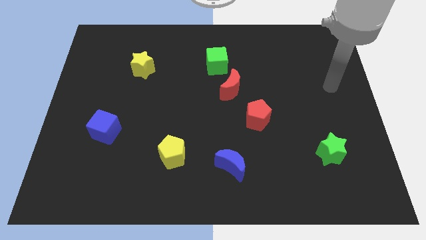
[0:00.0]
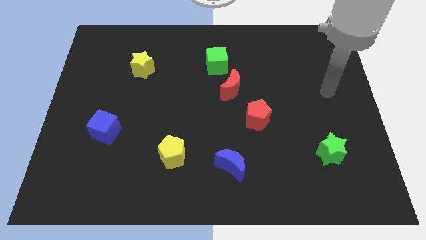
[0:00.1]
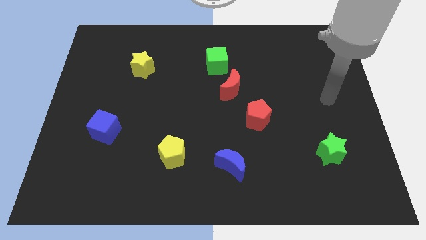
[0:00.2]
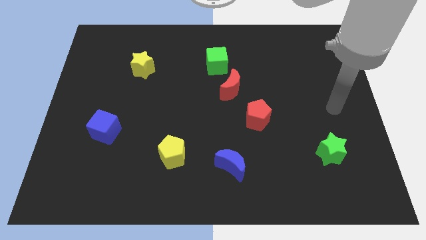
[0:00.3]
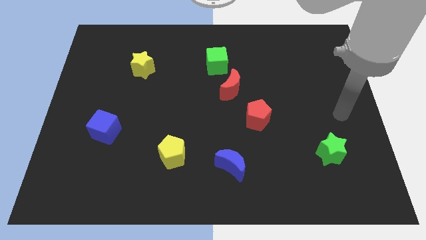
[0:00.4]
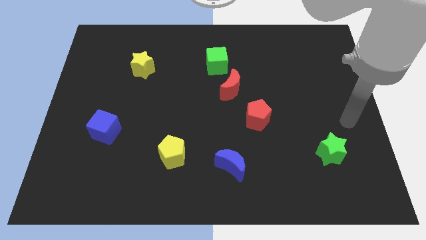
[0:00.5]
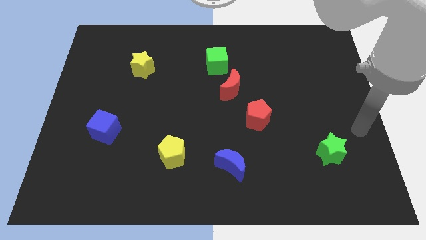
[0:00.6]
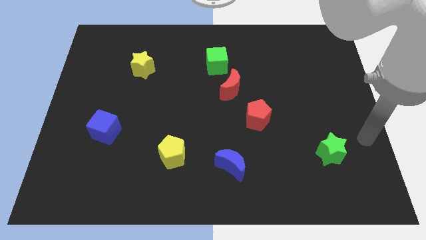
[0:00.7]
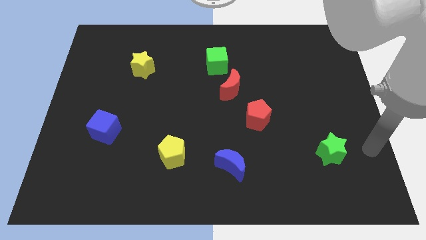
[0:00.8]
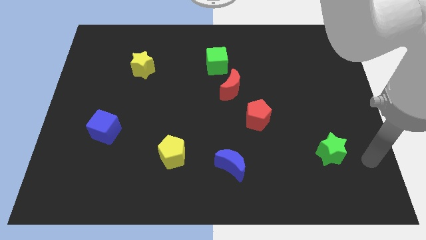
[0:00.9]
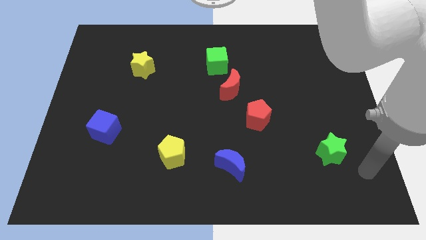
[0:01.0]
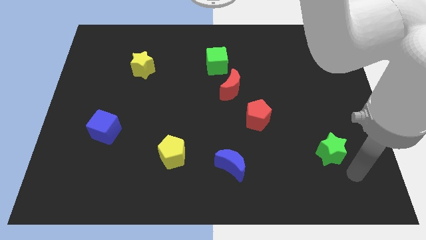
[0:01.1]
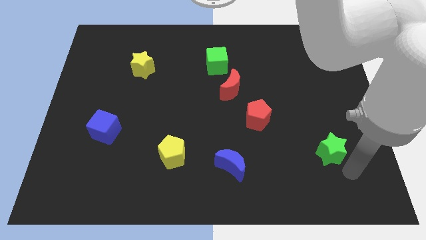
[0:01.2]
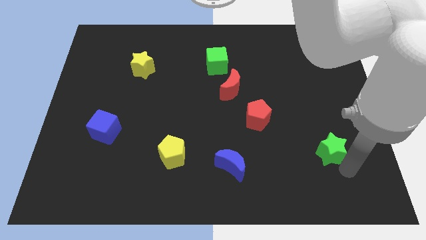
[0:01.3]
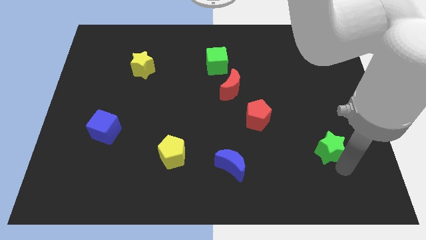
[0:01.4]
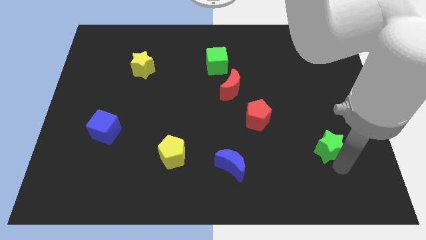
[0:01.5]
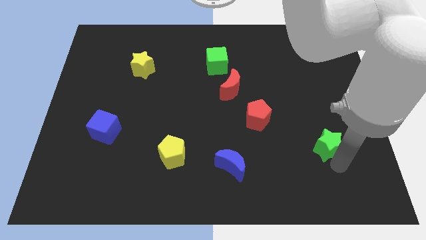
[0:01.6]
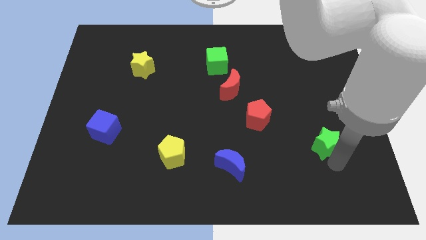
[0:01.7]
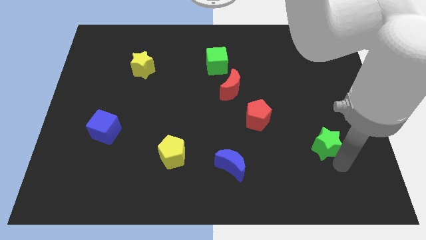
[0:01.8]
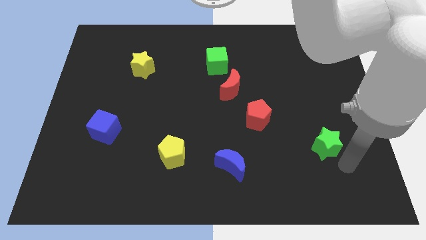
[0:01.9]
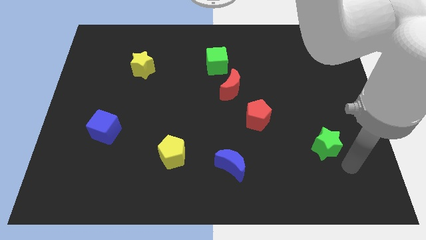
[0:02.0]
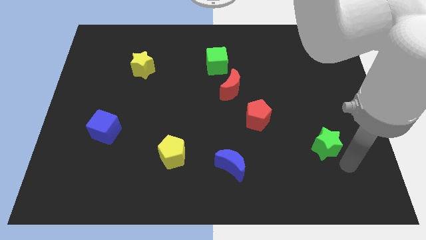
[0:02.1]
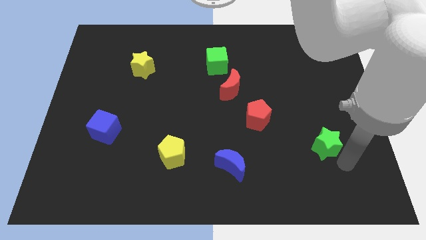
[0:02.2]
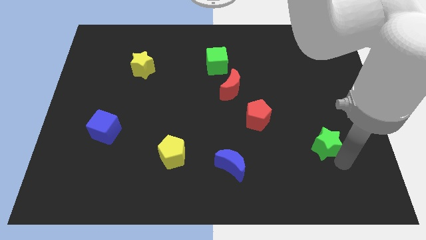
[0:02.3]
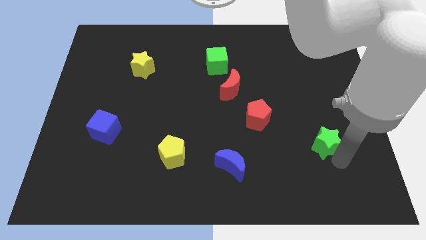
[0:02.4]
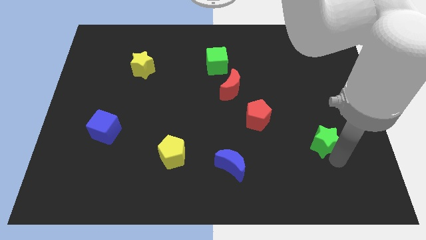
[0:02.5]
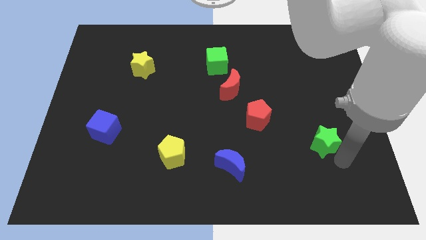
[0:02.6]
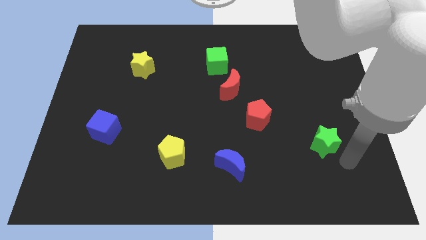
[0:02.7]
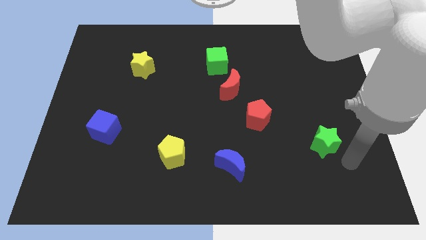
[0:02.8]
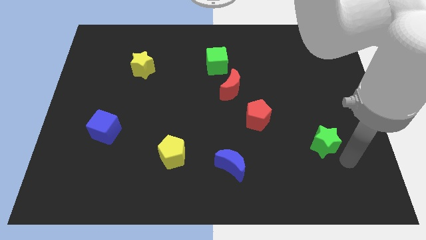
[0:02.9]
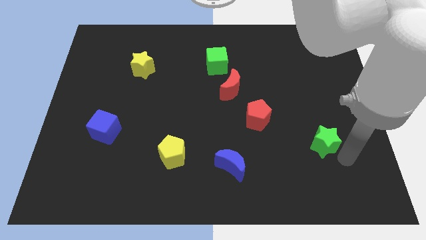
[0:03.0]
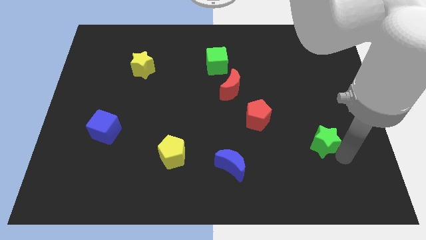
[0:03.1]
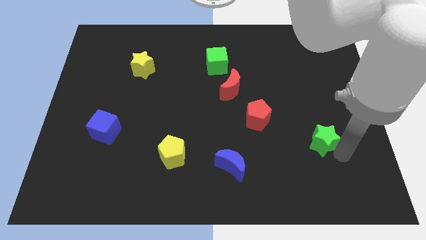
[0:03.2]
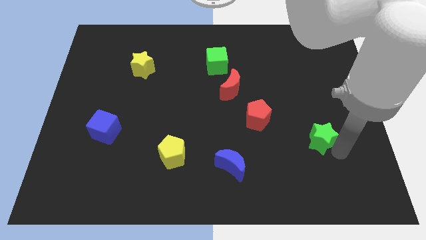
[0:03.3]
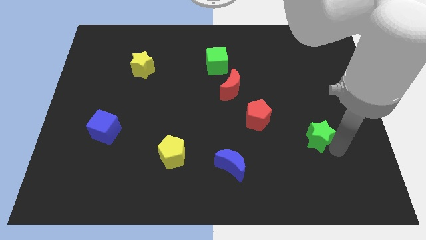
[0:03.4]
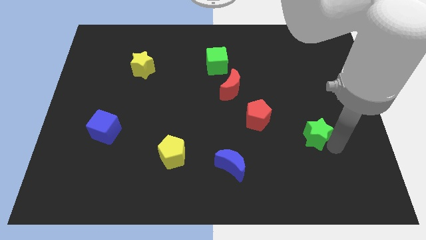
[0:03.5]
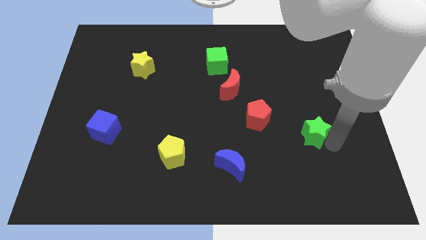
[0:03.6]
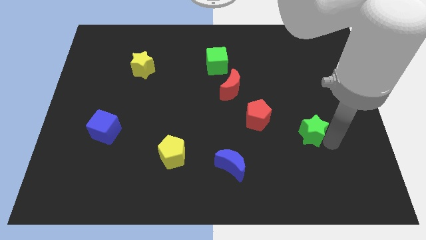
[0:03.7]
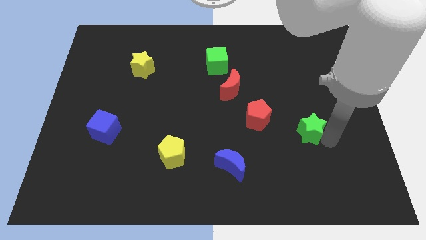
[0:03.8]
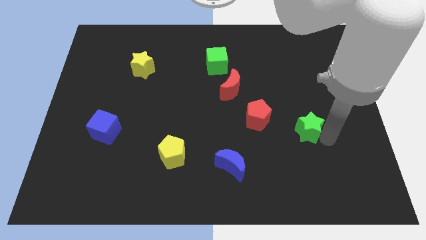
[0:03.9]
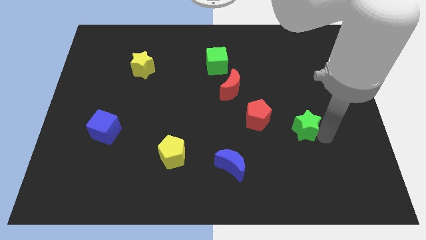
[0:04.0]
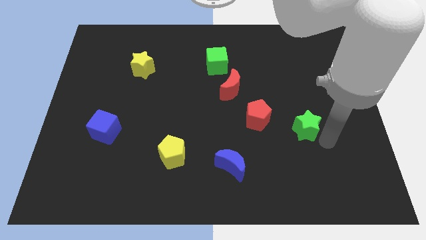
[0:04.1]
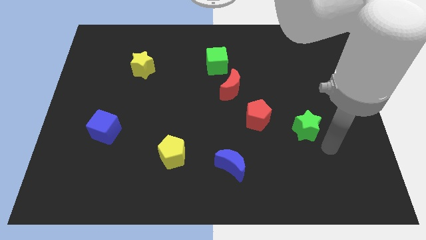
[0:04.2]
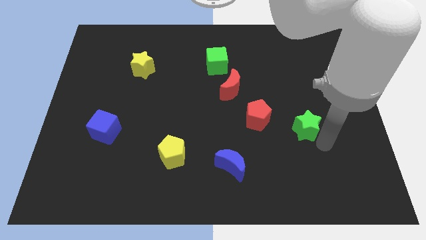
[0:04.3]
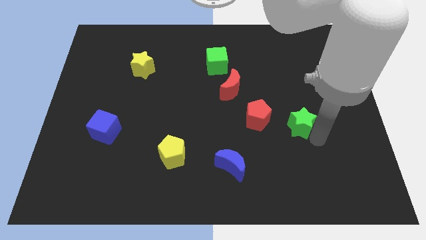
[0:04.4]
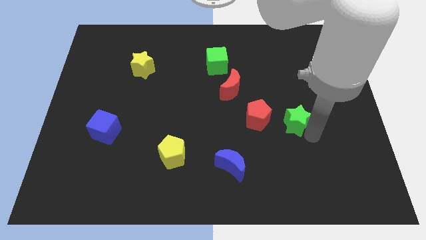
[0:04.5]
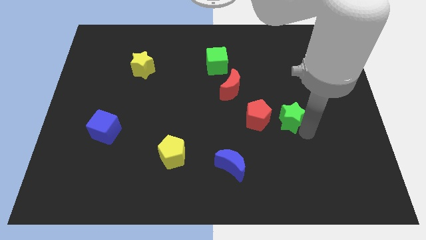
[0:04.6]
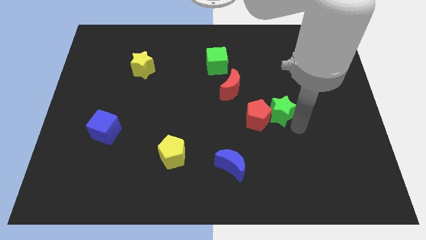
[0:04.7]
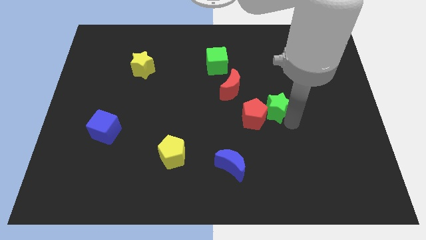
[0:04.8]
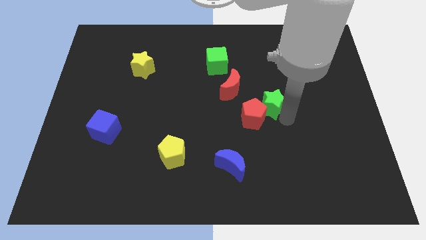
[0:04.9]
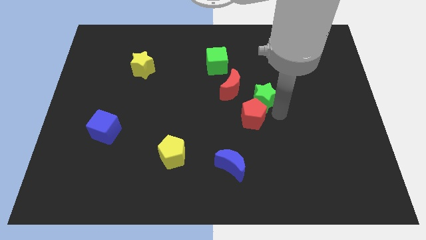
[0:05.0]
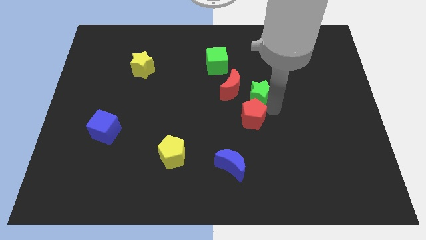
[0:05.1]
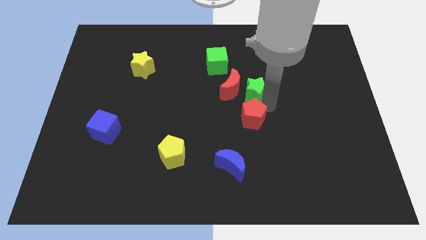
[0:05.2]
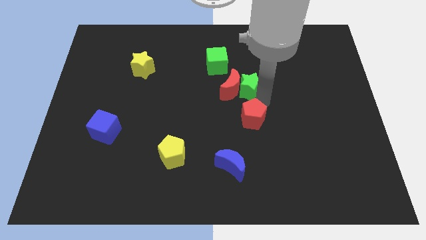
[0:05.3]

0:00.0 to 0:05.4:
put the green star to the bottom right side of the green cube

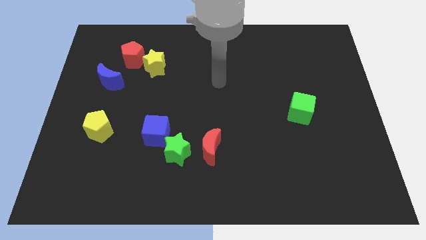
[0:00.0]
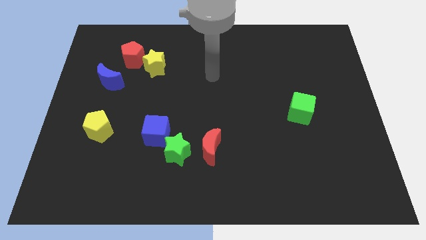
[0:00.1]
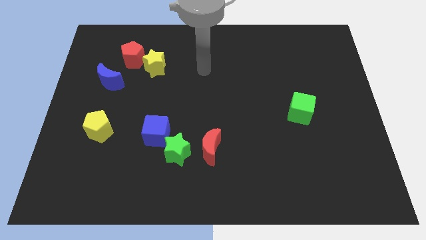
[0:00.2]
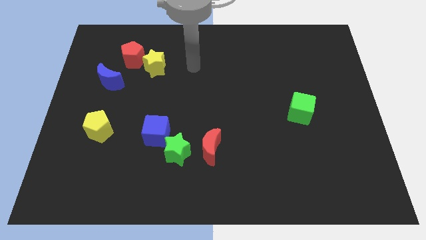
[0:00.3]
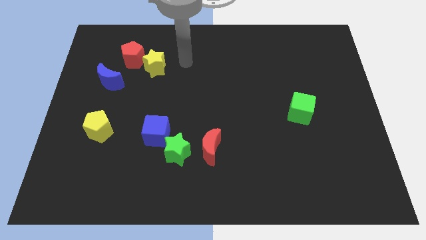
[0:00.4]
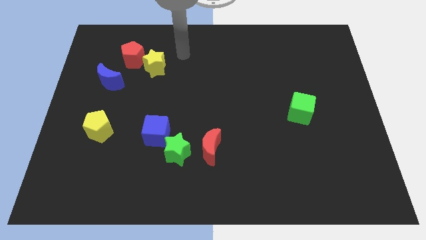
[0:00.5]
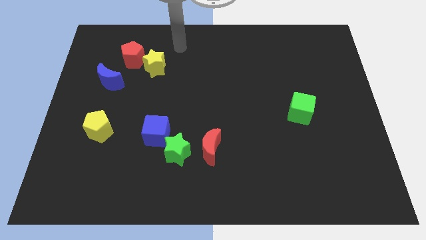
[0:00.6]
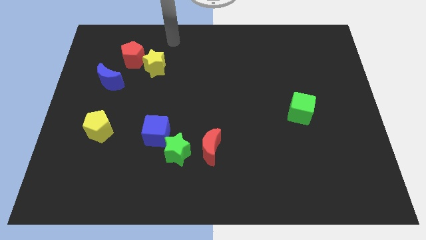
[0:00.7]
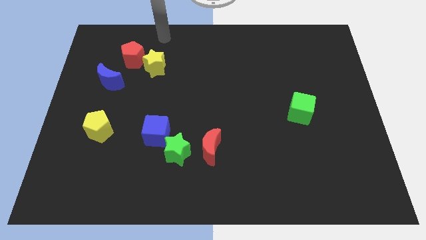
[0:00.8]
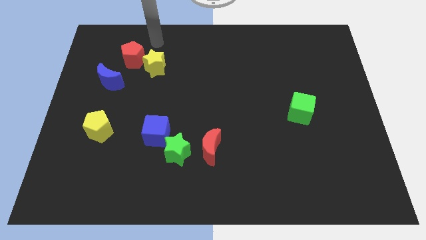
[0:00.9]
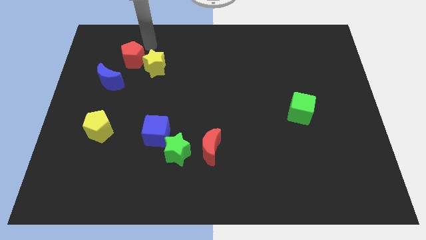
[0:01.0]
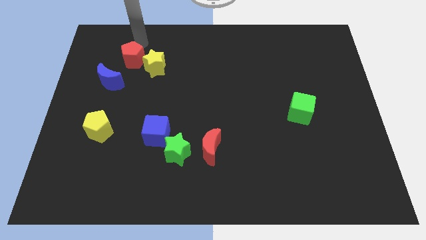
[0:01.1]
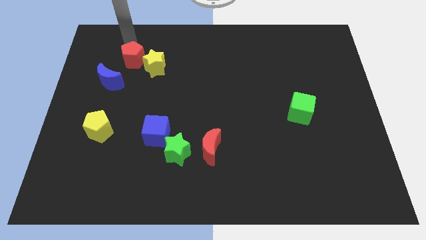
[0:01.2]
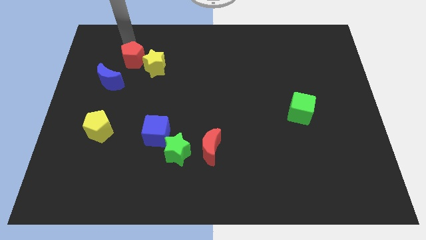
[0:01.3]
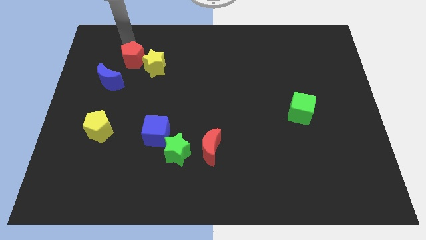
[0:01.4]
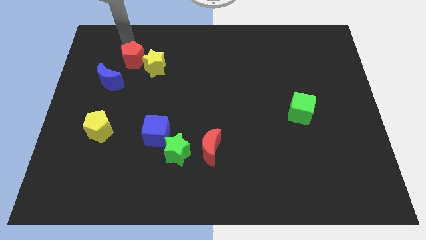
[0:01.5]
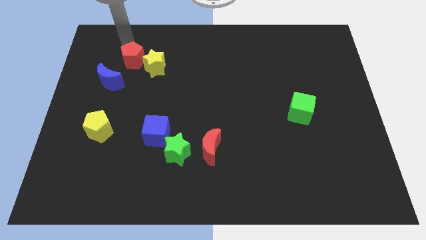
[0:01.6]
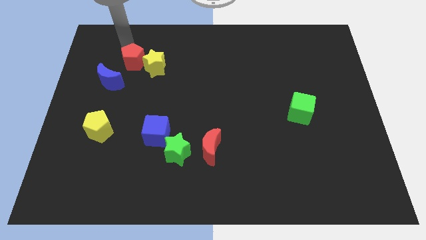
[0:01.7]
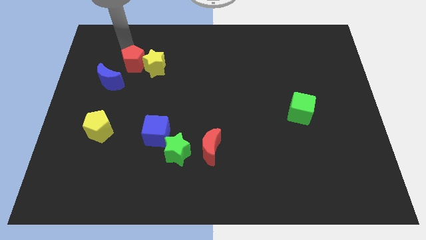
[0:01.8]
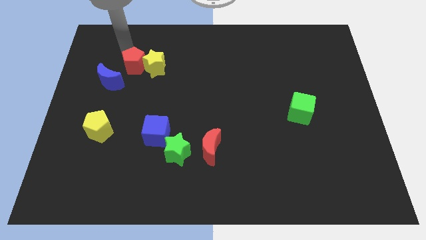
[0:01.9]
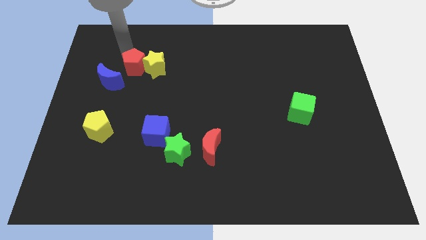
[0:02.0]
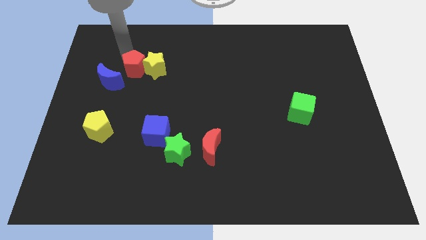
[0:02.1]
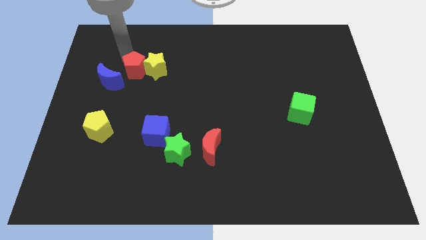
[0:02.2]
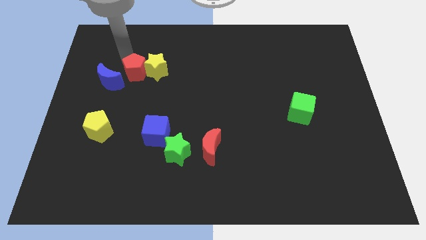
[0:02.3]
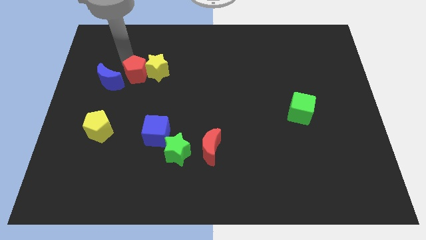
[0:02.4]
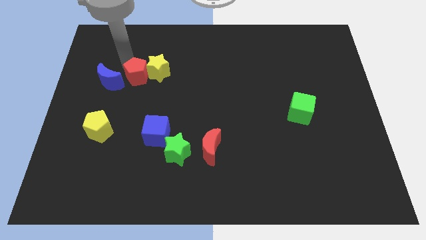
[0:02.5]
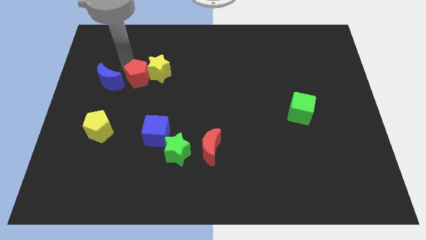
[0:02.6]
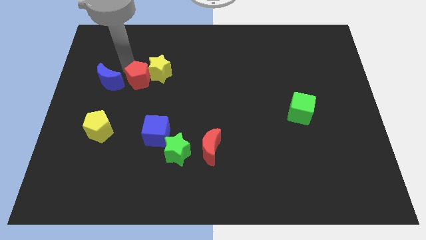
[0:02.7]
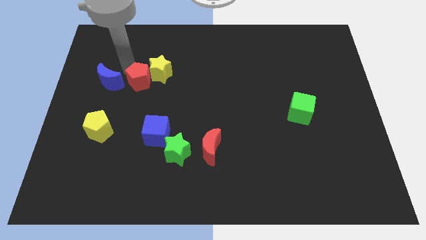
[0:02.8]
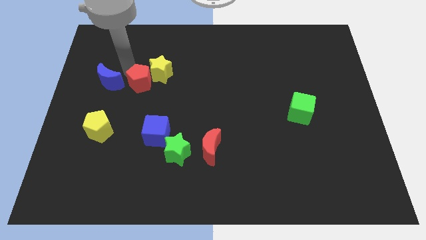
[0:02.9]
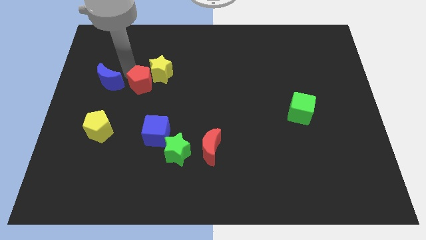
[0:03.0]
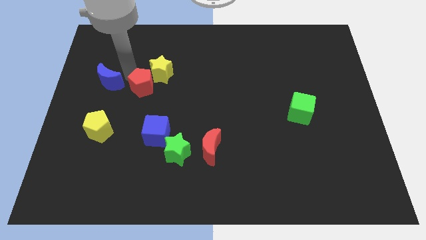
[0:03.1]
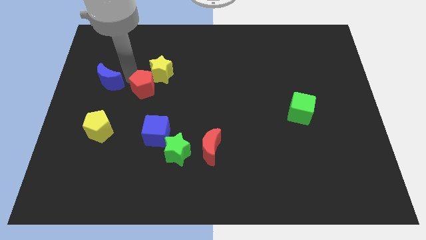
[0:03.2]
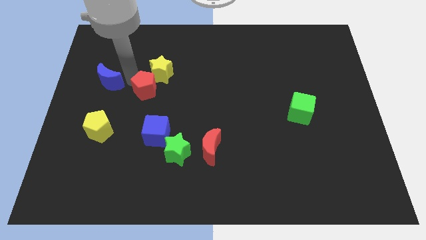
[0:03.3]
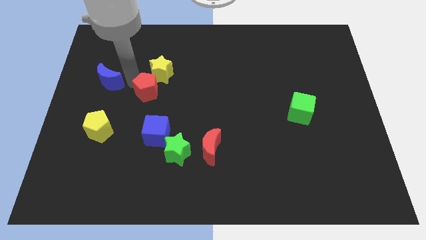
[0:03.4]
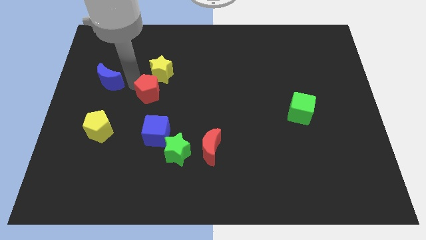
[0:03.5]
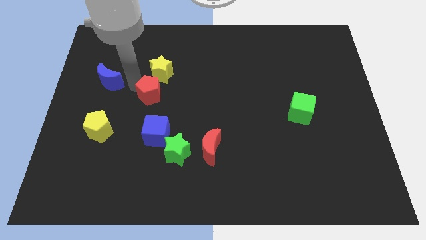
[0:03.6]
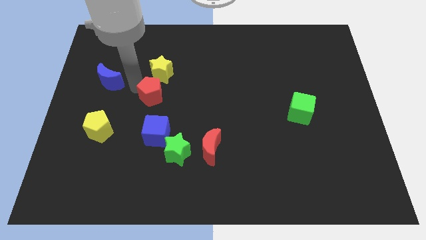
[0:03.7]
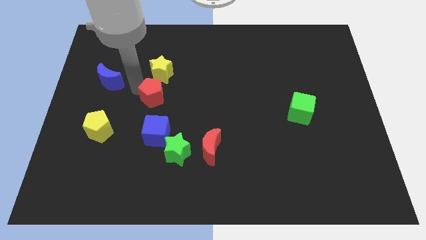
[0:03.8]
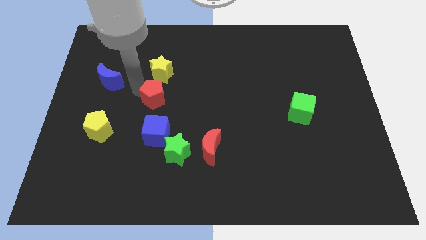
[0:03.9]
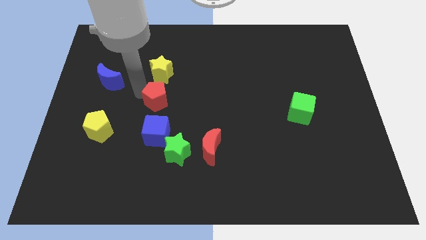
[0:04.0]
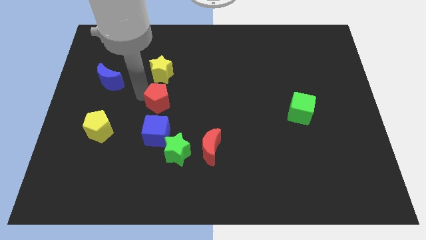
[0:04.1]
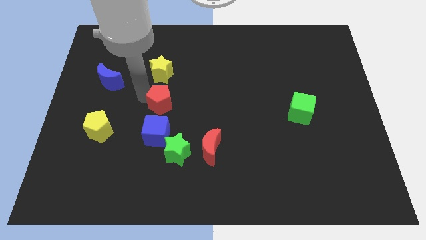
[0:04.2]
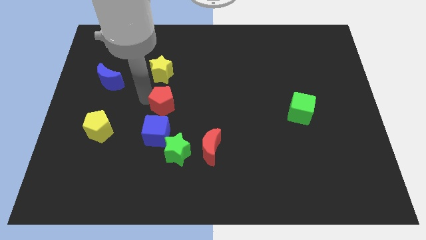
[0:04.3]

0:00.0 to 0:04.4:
move the red pentagon to the top side of the green star
